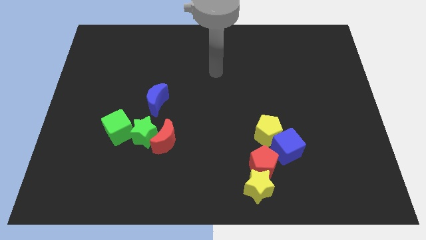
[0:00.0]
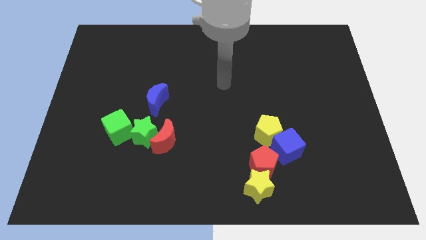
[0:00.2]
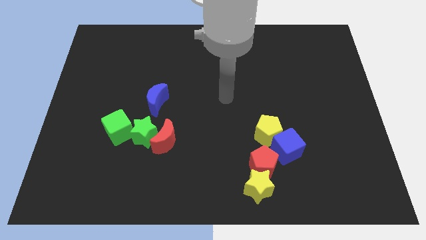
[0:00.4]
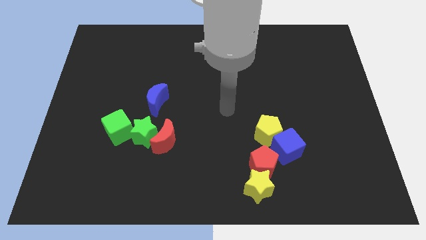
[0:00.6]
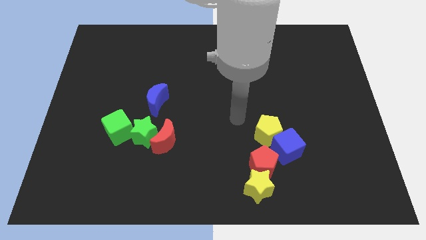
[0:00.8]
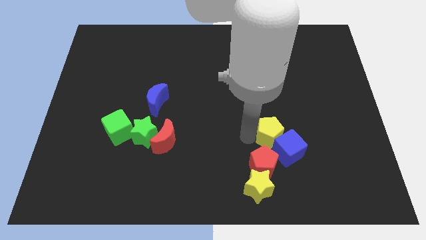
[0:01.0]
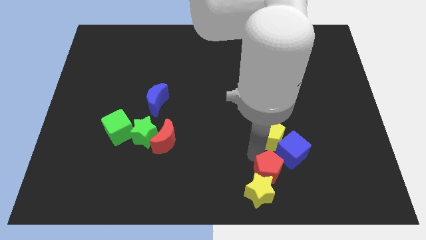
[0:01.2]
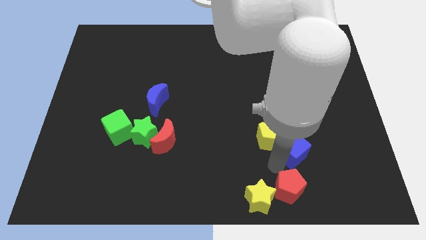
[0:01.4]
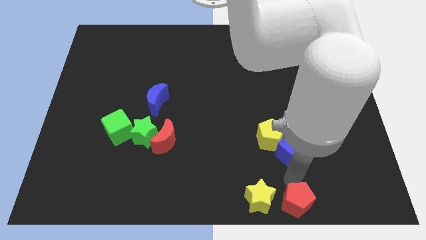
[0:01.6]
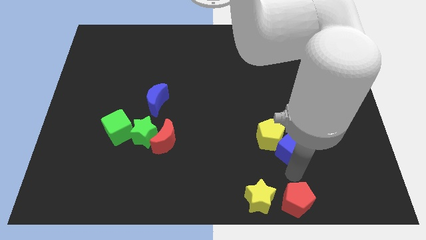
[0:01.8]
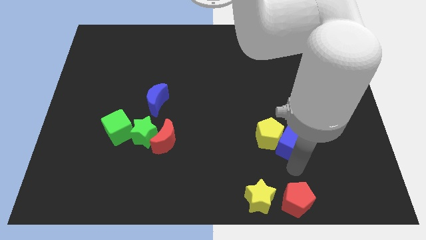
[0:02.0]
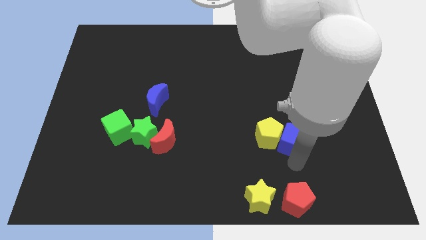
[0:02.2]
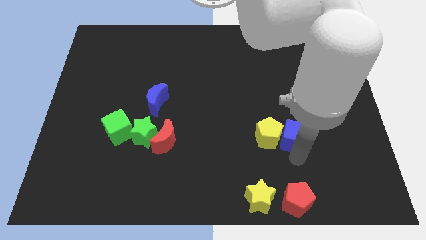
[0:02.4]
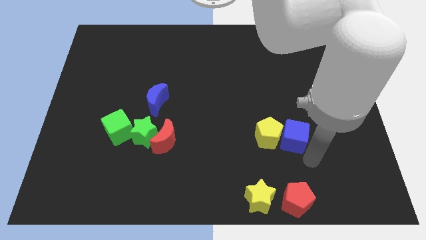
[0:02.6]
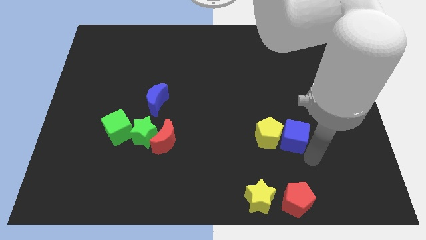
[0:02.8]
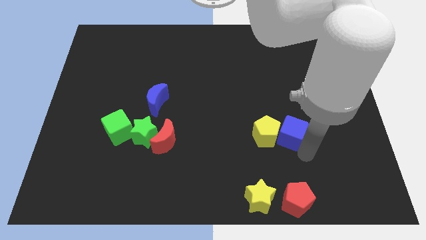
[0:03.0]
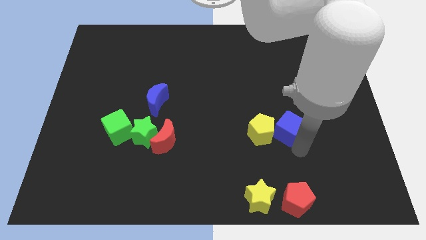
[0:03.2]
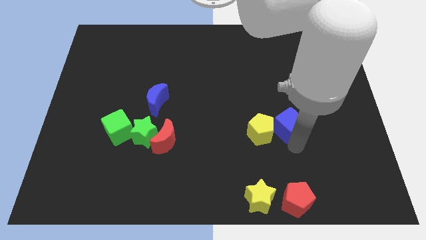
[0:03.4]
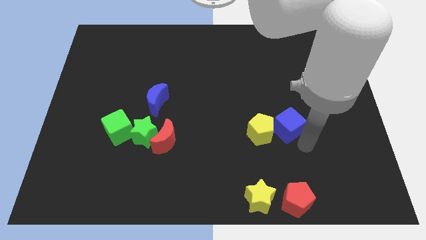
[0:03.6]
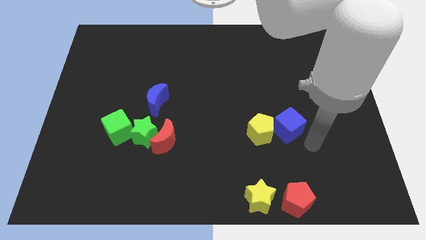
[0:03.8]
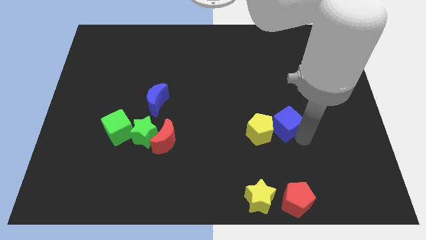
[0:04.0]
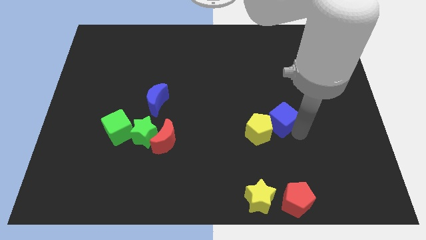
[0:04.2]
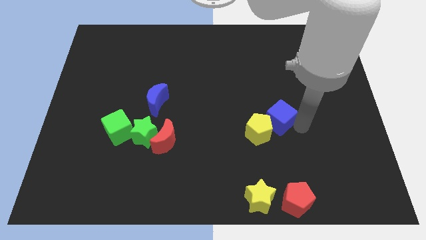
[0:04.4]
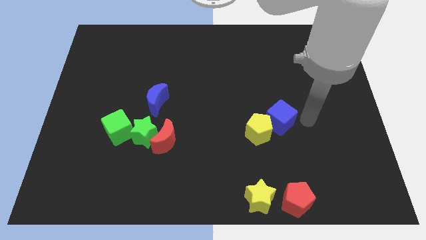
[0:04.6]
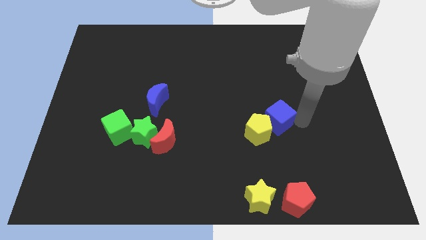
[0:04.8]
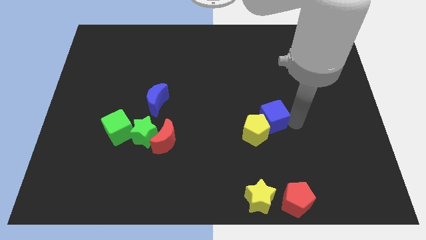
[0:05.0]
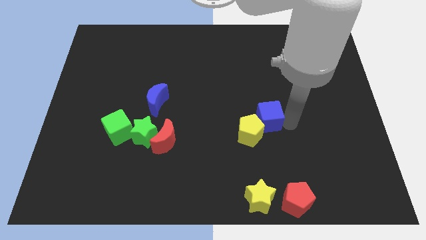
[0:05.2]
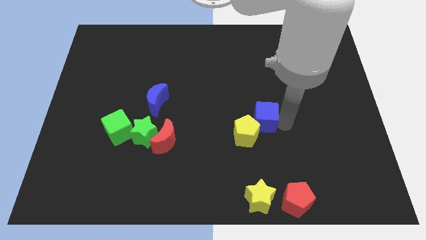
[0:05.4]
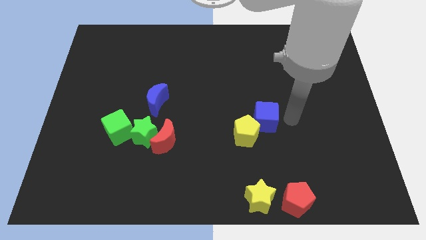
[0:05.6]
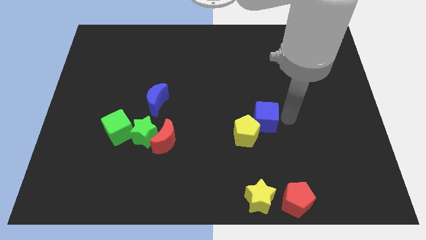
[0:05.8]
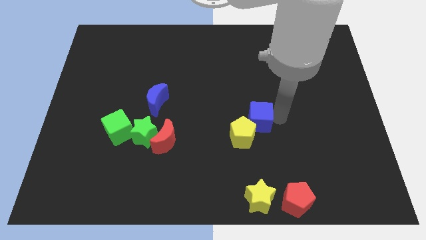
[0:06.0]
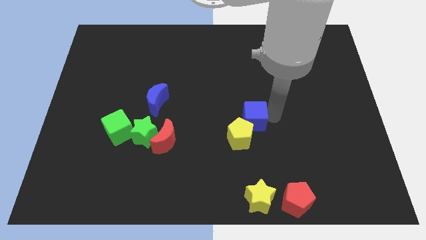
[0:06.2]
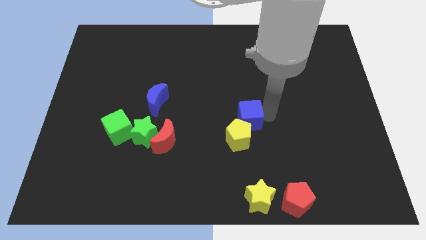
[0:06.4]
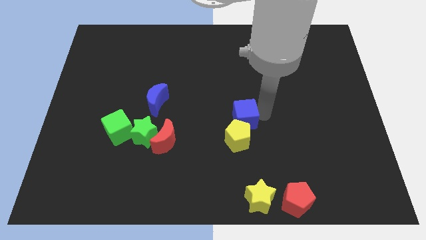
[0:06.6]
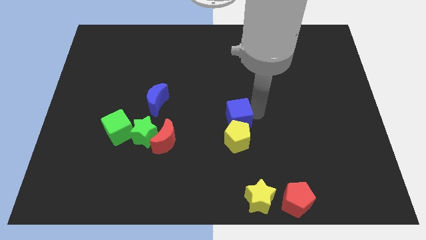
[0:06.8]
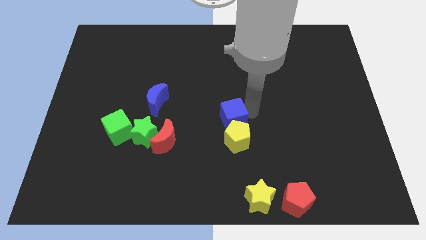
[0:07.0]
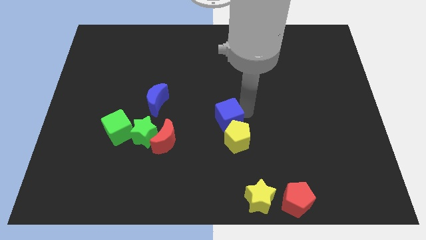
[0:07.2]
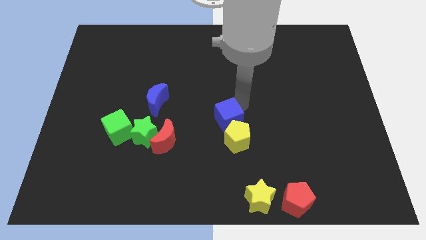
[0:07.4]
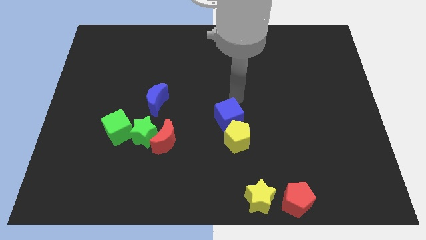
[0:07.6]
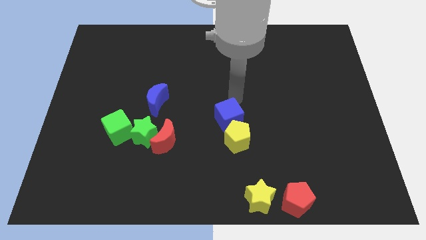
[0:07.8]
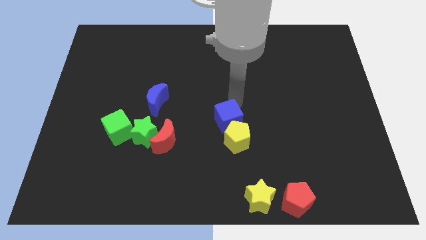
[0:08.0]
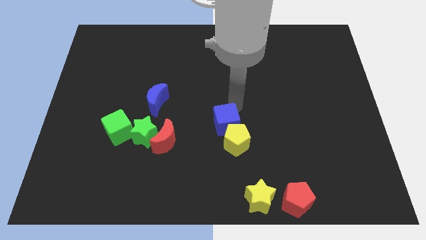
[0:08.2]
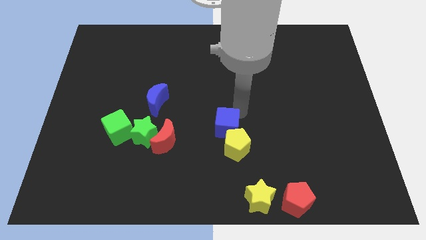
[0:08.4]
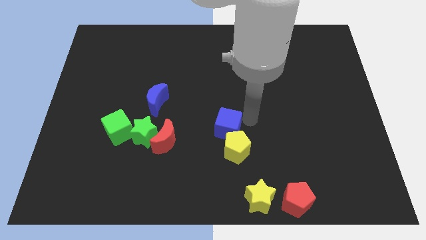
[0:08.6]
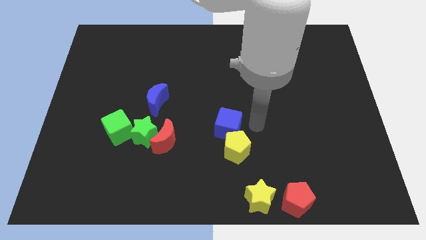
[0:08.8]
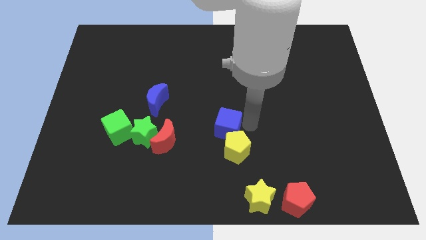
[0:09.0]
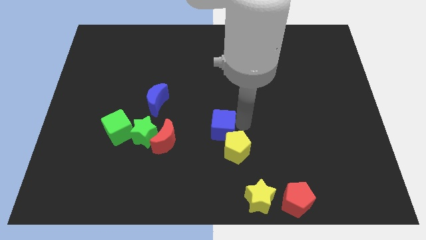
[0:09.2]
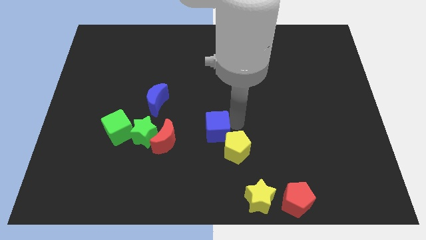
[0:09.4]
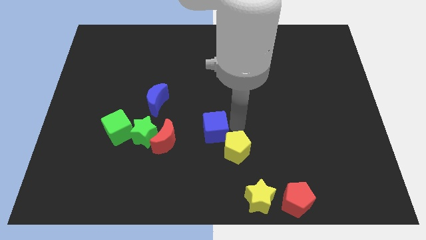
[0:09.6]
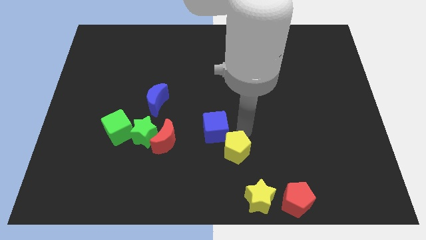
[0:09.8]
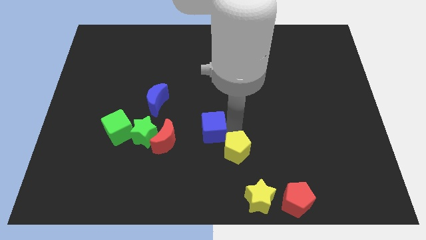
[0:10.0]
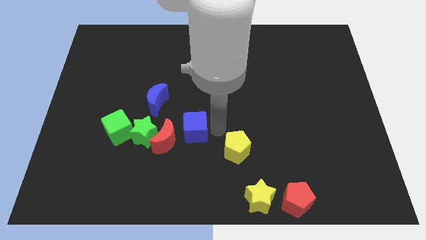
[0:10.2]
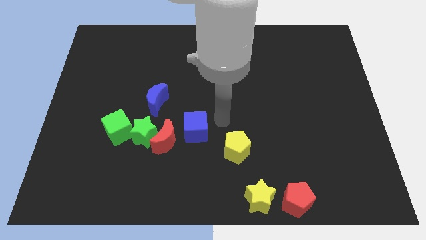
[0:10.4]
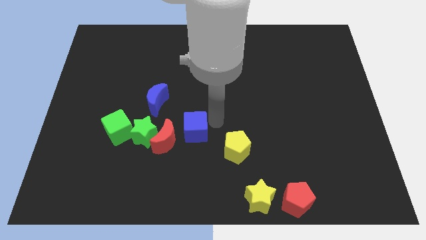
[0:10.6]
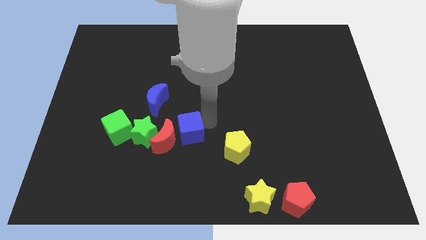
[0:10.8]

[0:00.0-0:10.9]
move the blue cube towards the red moon

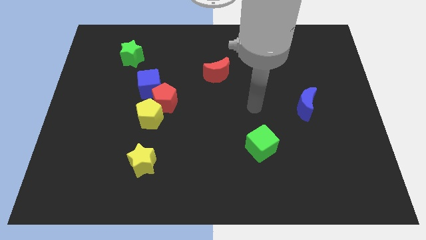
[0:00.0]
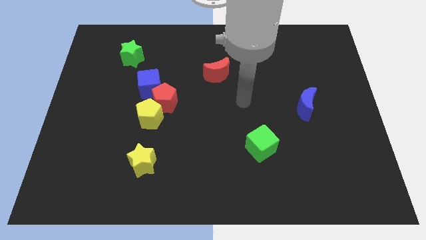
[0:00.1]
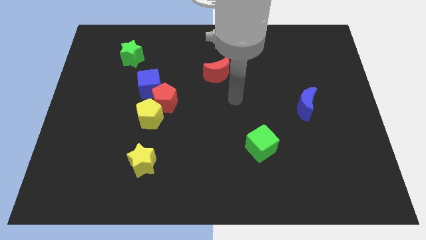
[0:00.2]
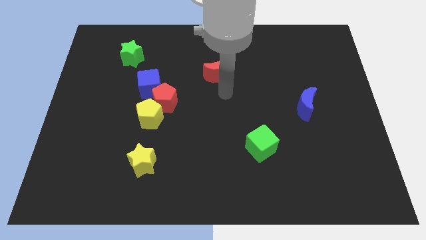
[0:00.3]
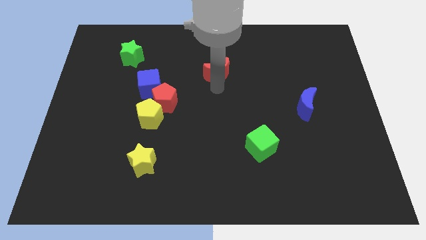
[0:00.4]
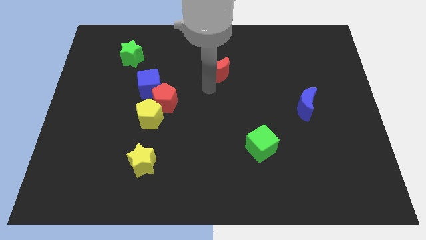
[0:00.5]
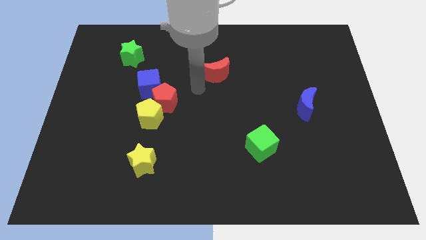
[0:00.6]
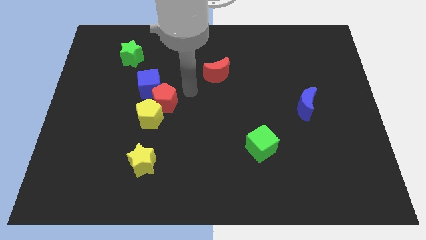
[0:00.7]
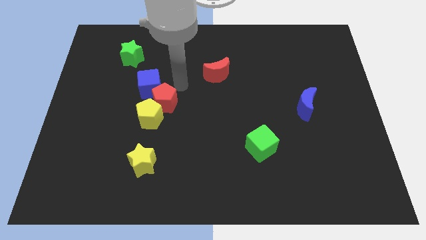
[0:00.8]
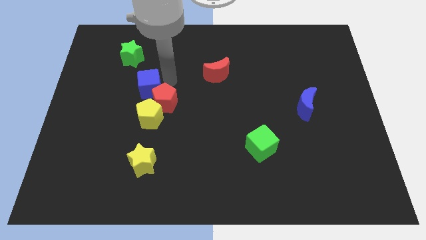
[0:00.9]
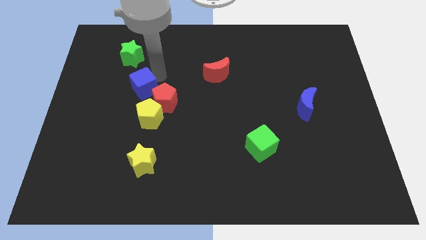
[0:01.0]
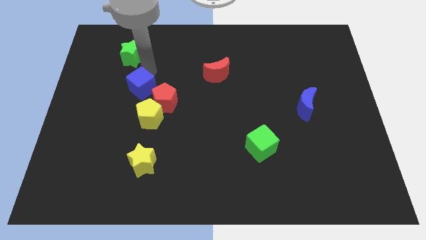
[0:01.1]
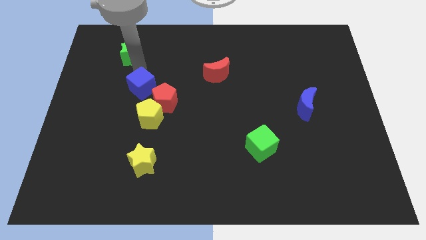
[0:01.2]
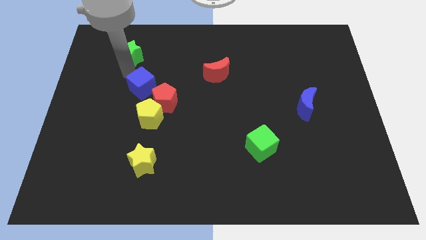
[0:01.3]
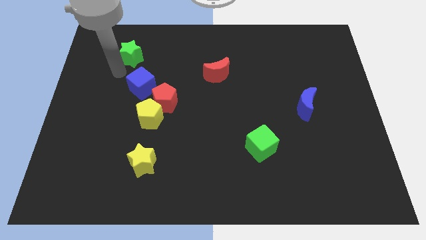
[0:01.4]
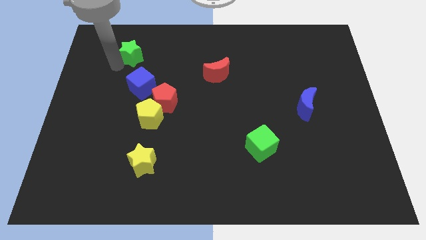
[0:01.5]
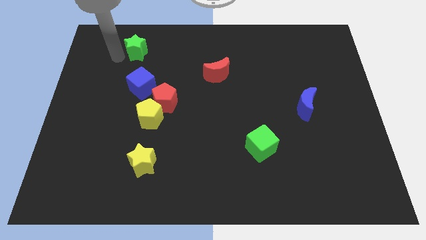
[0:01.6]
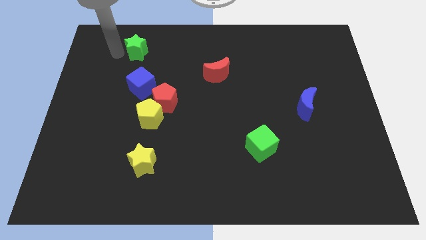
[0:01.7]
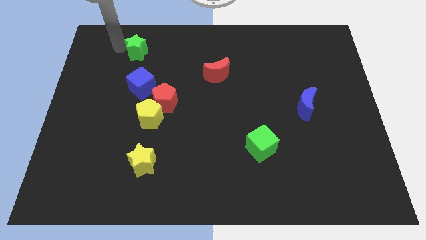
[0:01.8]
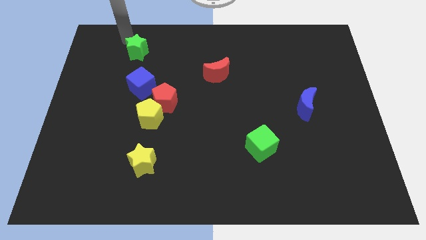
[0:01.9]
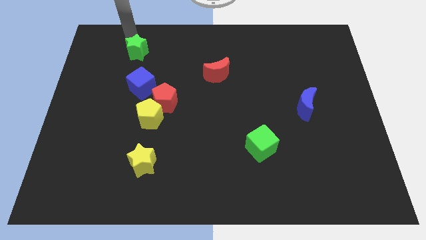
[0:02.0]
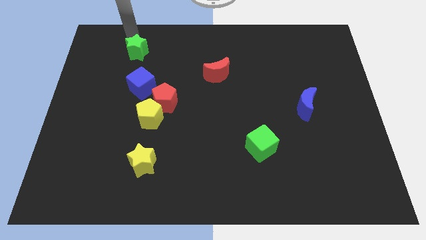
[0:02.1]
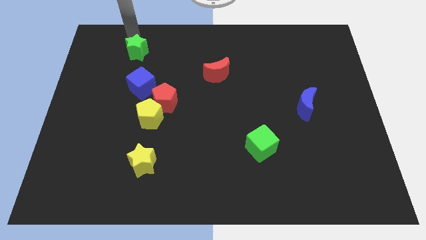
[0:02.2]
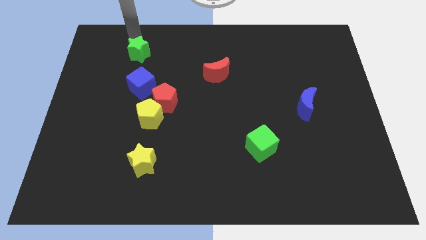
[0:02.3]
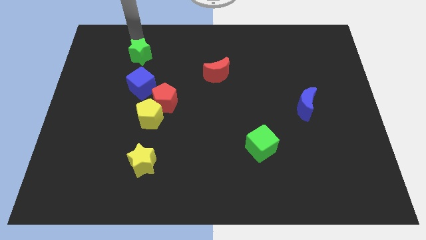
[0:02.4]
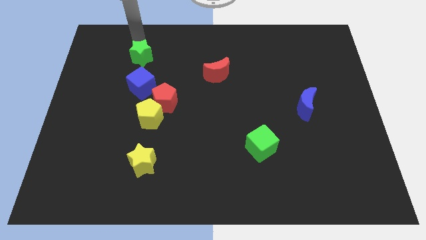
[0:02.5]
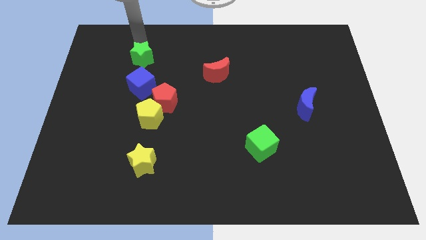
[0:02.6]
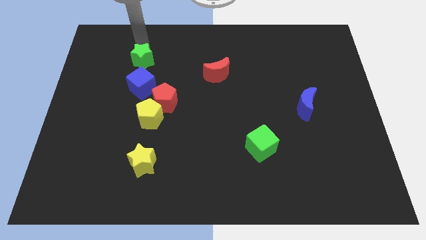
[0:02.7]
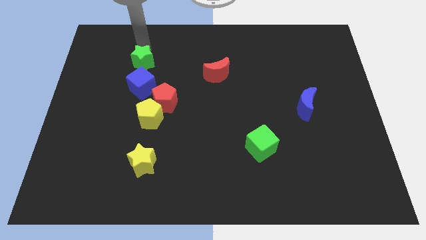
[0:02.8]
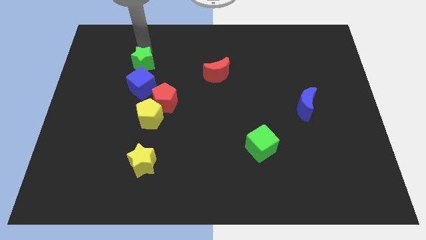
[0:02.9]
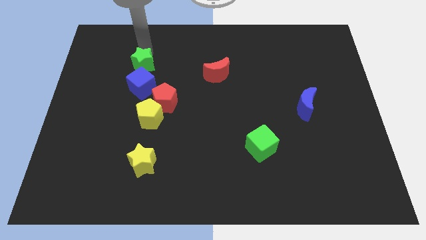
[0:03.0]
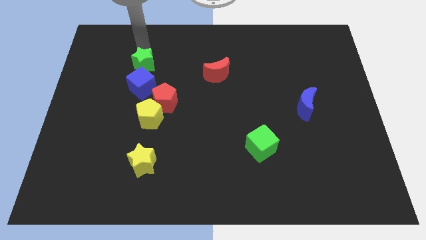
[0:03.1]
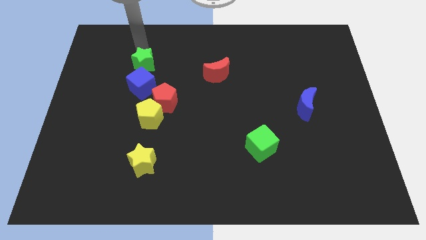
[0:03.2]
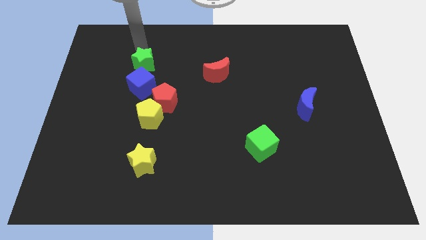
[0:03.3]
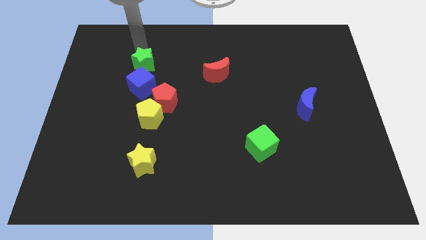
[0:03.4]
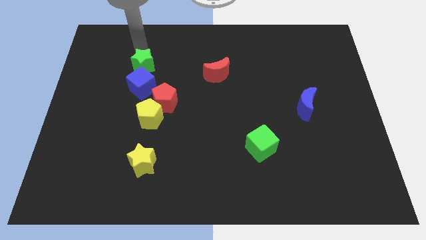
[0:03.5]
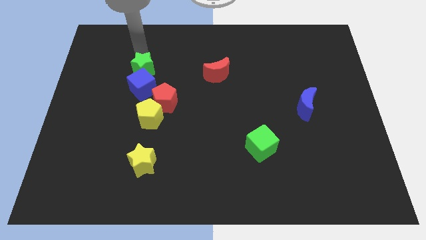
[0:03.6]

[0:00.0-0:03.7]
put the green star towards the blue cube
